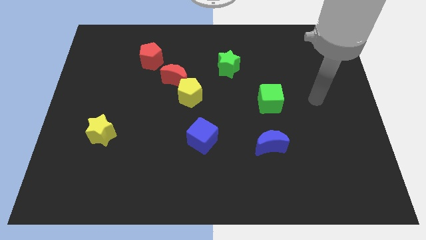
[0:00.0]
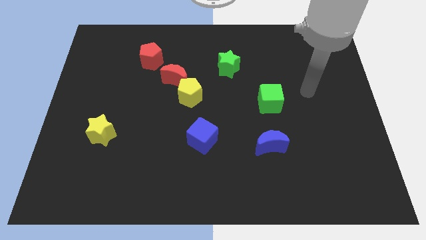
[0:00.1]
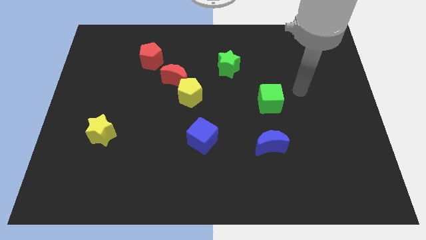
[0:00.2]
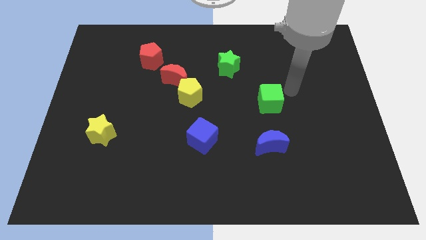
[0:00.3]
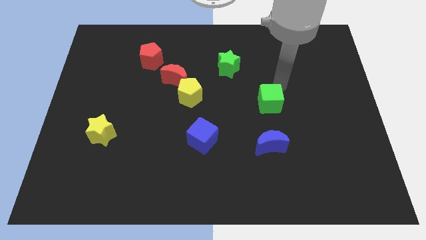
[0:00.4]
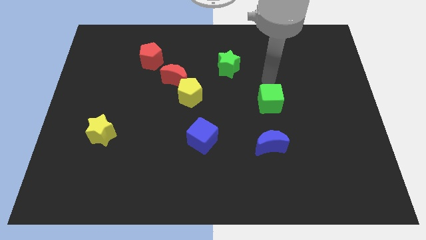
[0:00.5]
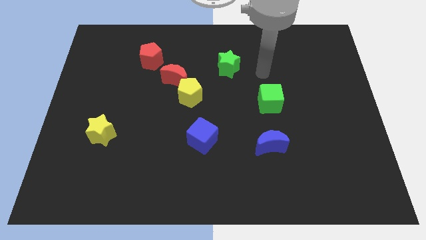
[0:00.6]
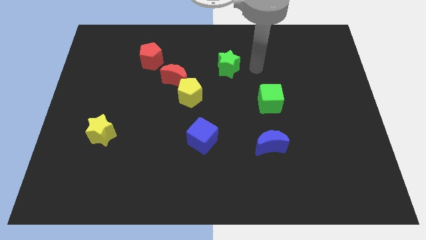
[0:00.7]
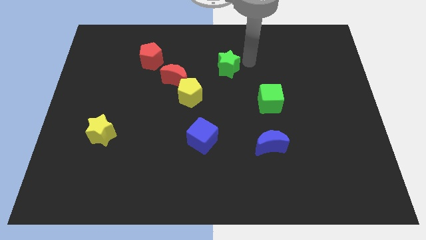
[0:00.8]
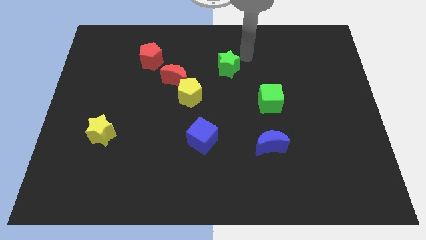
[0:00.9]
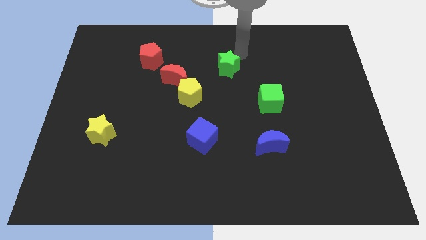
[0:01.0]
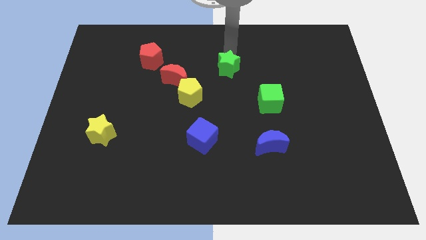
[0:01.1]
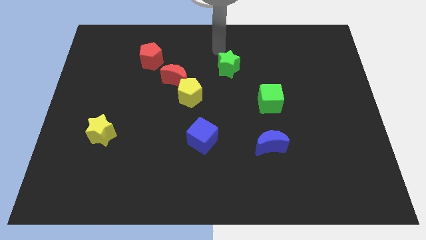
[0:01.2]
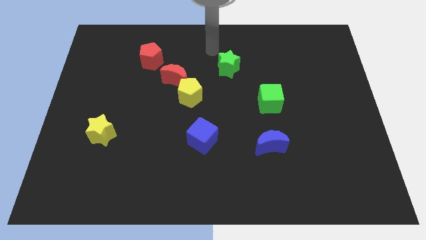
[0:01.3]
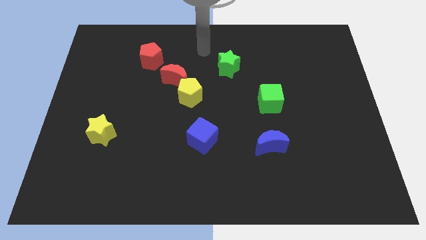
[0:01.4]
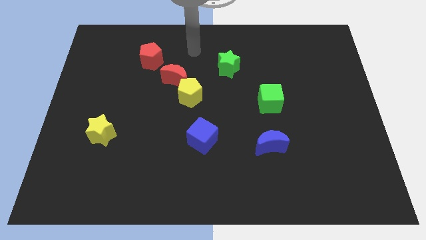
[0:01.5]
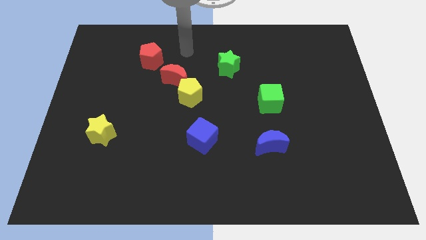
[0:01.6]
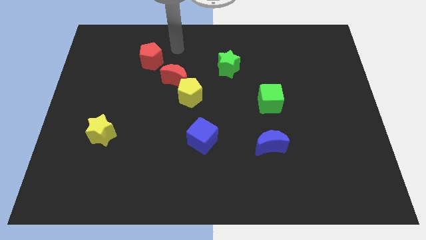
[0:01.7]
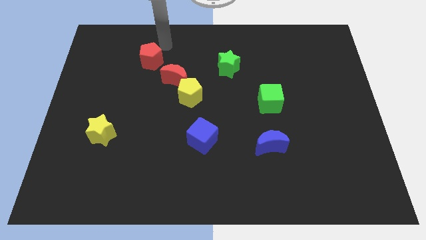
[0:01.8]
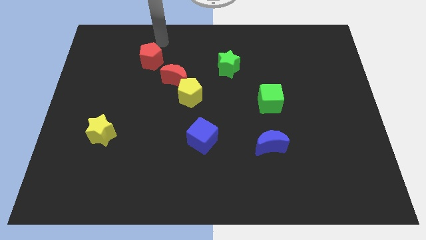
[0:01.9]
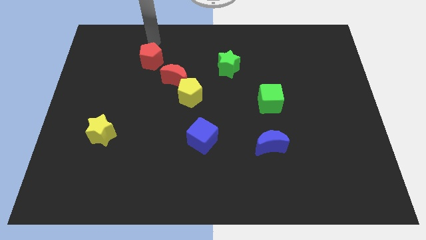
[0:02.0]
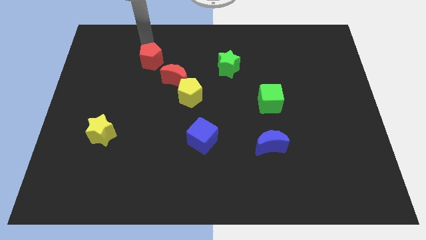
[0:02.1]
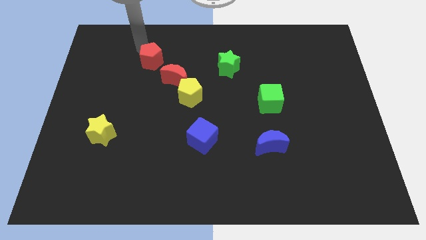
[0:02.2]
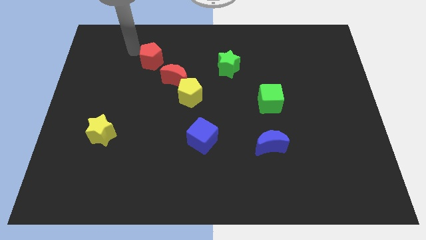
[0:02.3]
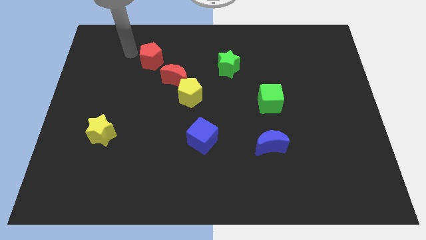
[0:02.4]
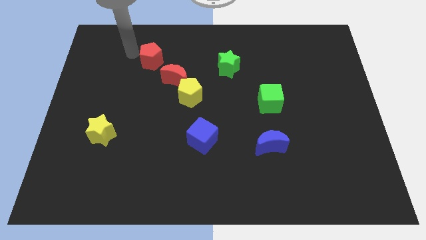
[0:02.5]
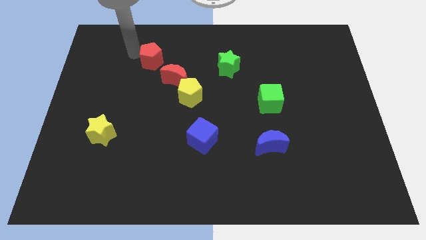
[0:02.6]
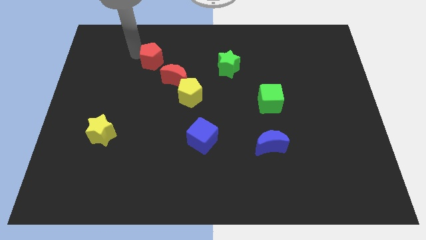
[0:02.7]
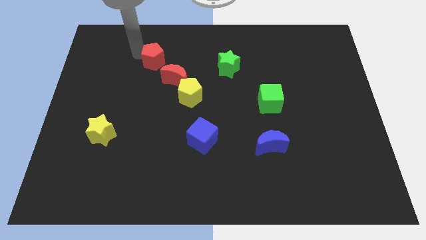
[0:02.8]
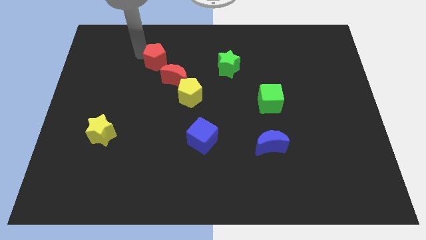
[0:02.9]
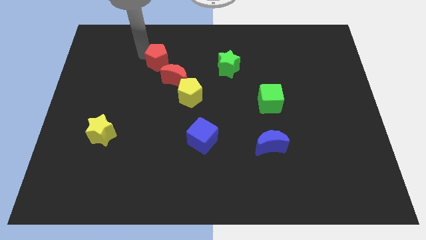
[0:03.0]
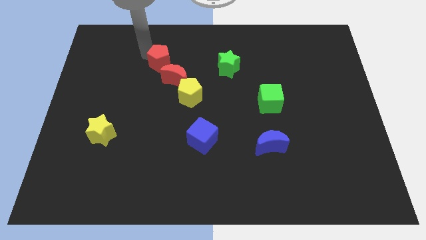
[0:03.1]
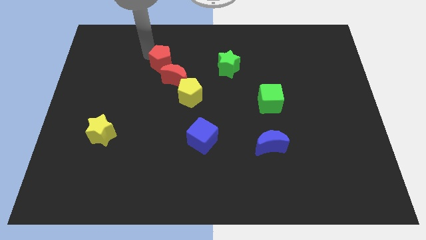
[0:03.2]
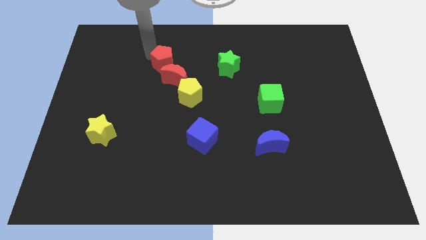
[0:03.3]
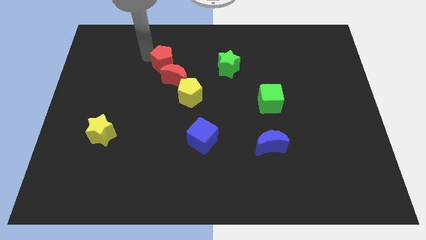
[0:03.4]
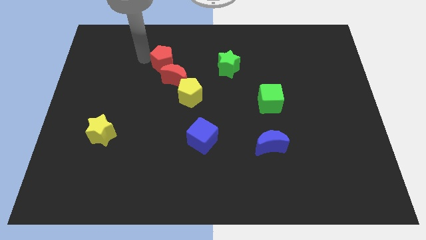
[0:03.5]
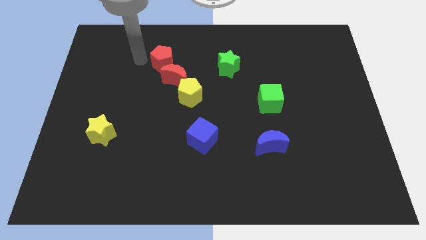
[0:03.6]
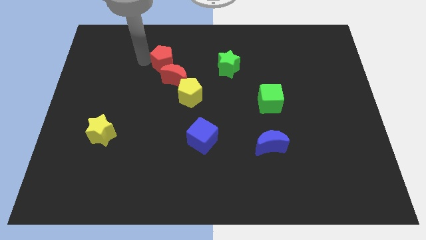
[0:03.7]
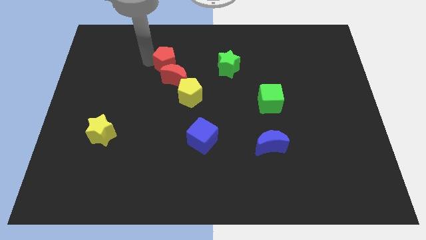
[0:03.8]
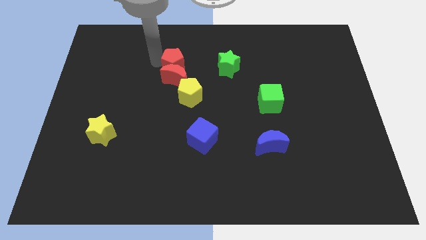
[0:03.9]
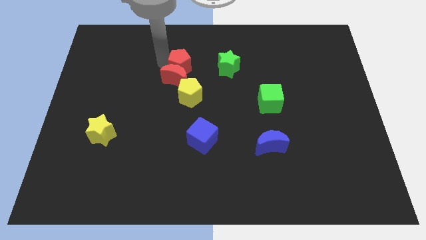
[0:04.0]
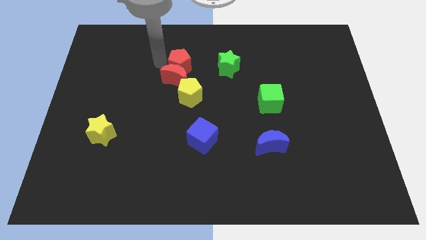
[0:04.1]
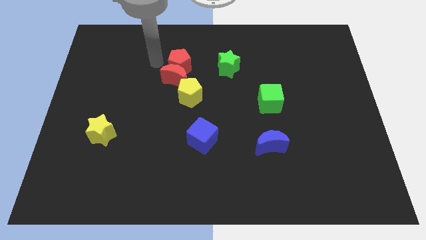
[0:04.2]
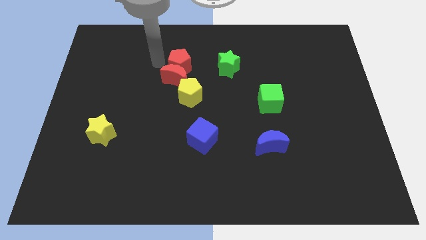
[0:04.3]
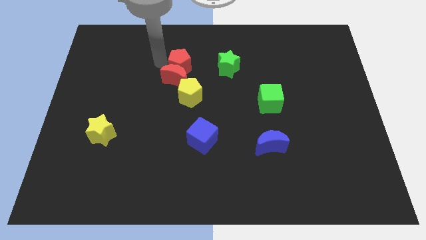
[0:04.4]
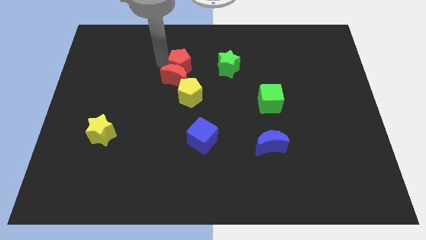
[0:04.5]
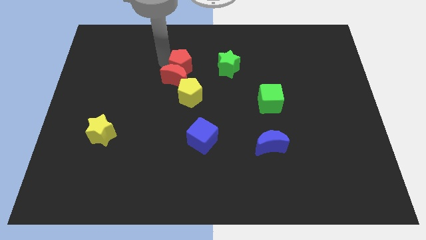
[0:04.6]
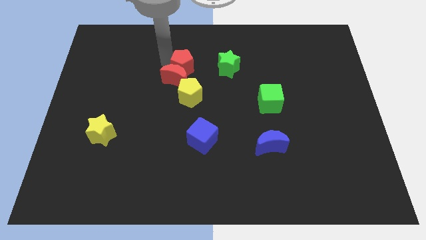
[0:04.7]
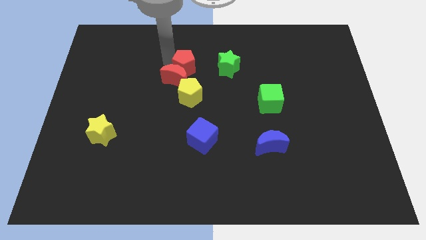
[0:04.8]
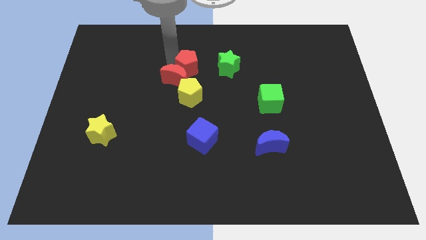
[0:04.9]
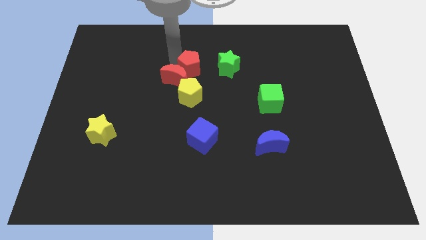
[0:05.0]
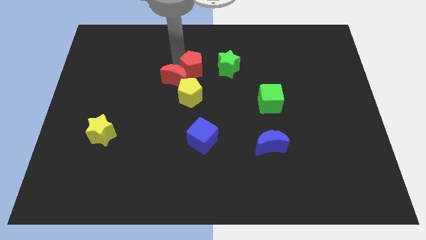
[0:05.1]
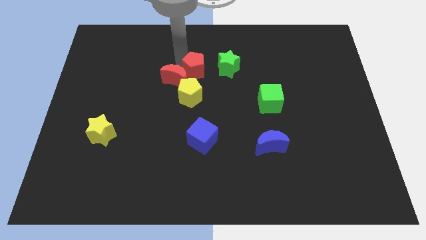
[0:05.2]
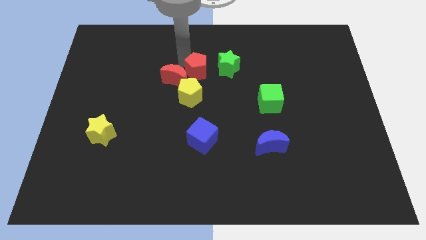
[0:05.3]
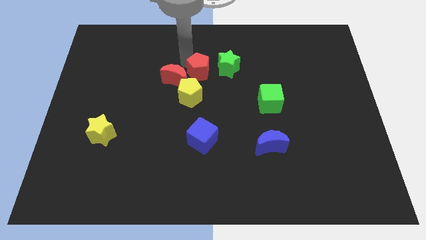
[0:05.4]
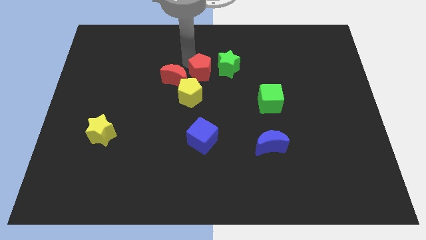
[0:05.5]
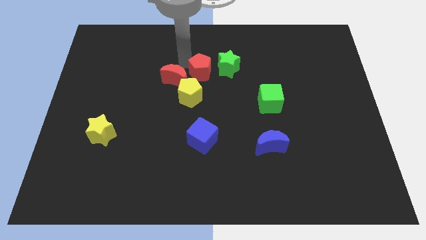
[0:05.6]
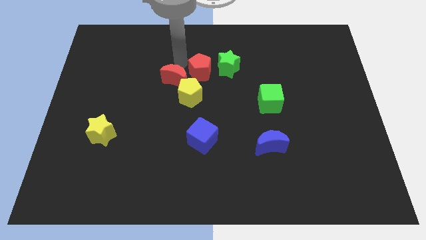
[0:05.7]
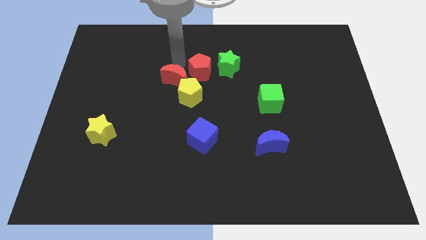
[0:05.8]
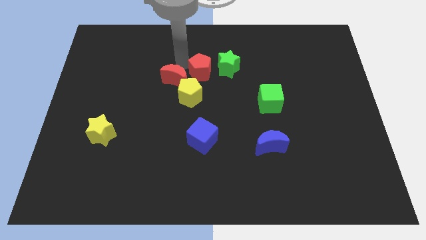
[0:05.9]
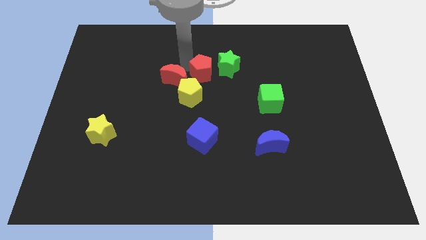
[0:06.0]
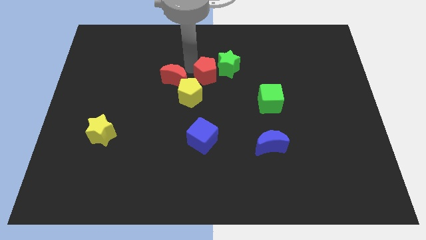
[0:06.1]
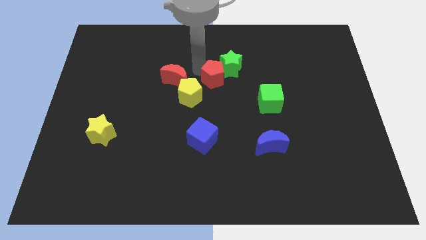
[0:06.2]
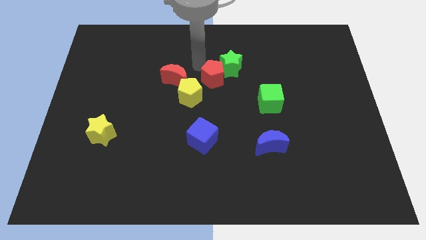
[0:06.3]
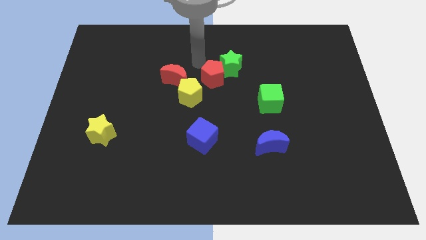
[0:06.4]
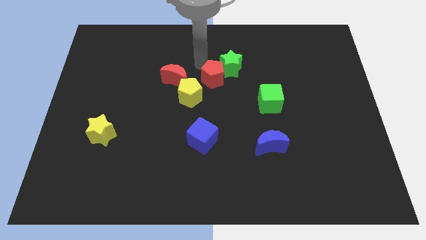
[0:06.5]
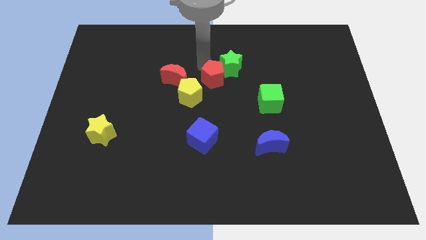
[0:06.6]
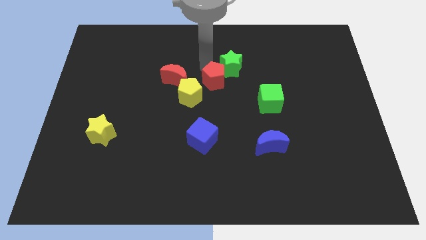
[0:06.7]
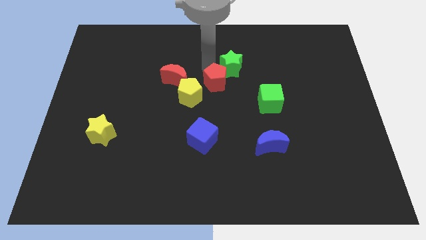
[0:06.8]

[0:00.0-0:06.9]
put the red pentagon to the right side of the yellow pentagon

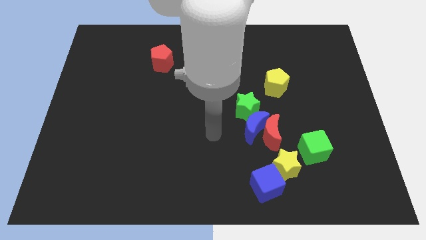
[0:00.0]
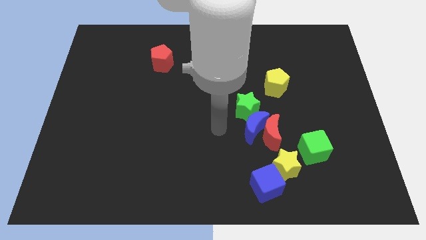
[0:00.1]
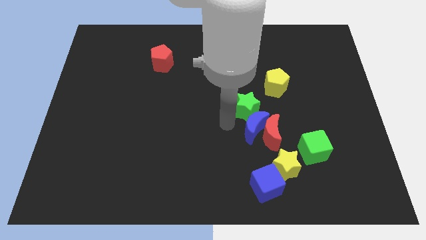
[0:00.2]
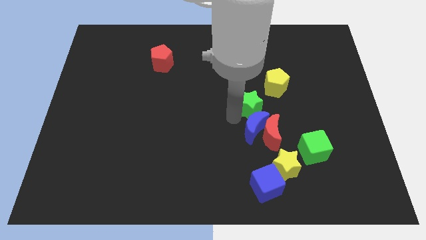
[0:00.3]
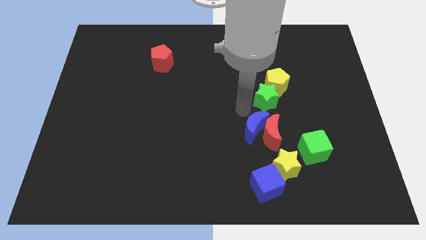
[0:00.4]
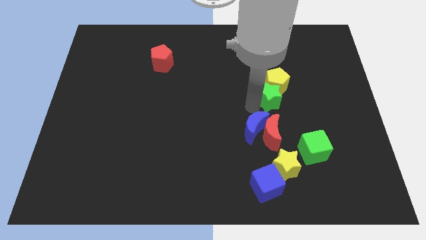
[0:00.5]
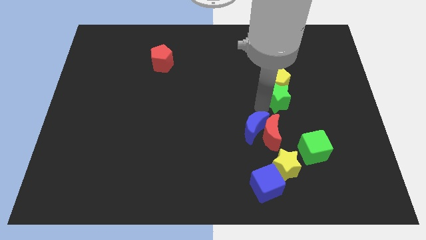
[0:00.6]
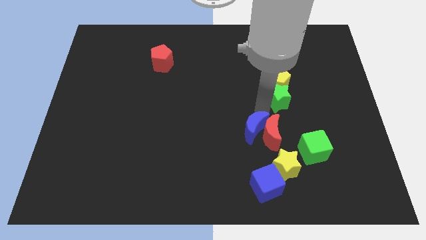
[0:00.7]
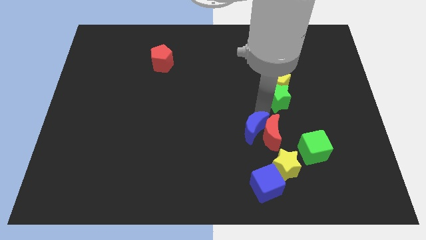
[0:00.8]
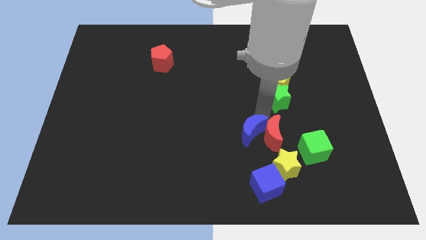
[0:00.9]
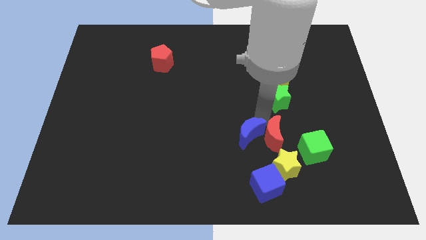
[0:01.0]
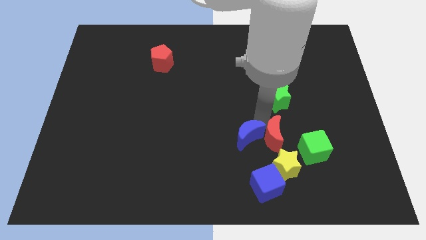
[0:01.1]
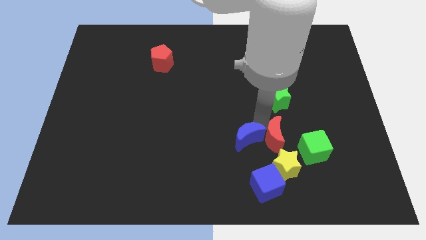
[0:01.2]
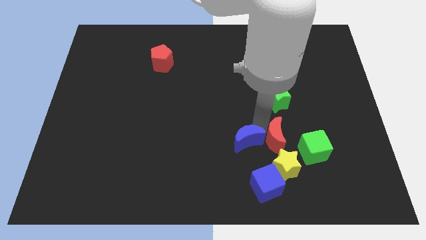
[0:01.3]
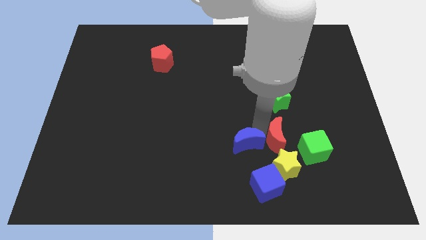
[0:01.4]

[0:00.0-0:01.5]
move the blue moon to the top left of the blue cube
